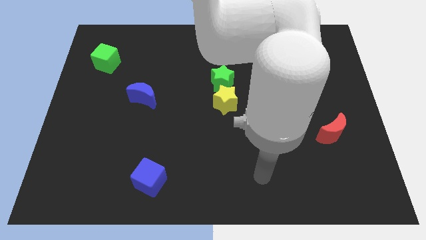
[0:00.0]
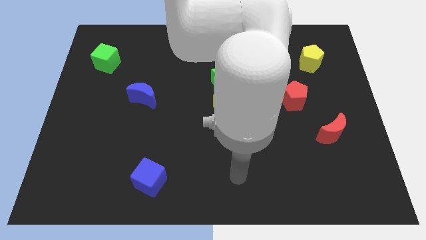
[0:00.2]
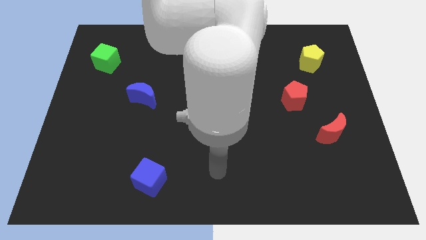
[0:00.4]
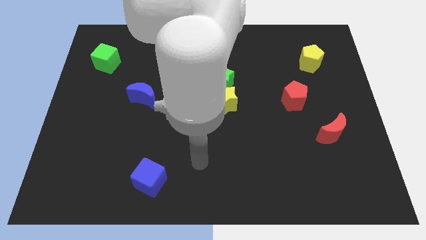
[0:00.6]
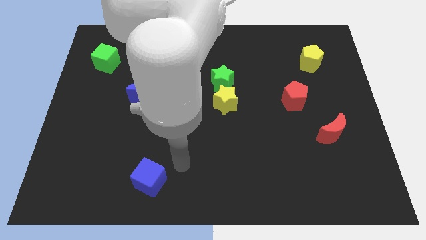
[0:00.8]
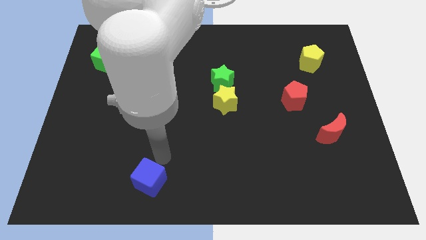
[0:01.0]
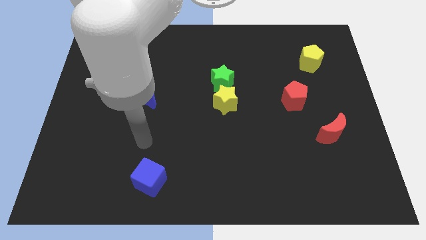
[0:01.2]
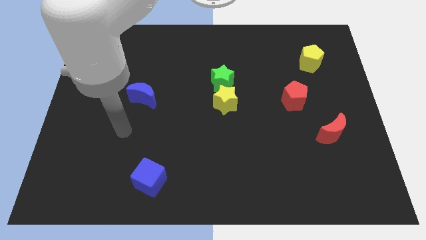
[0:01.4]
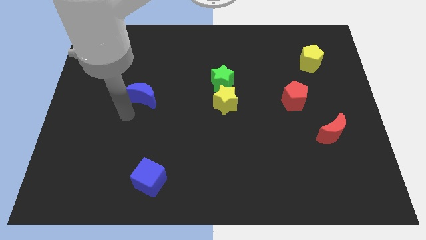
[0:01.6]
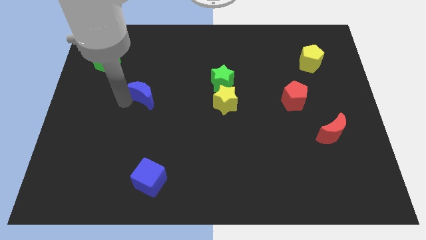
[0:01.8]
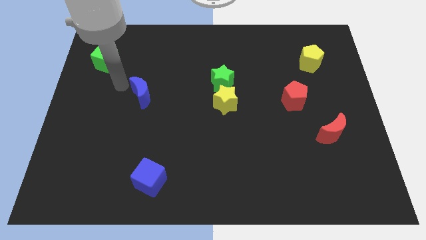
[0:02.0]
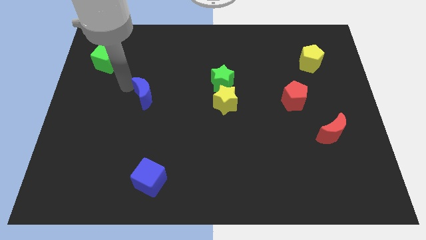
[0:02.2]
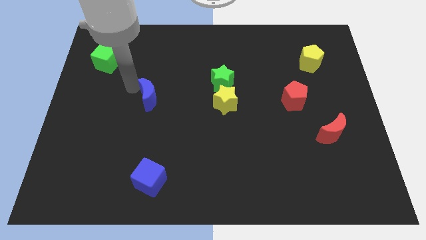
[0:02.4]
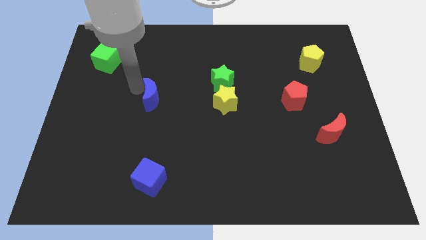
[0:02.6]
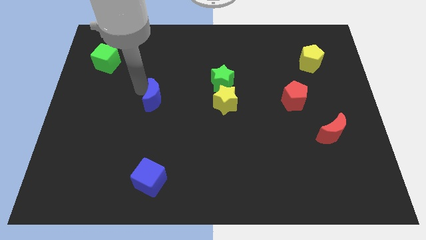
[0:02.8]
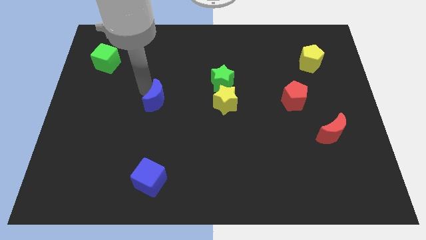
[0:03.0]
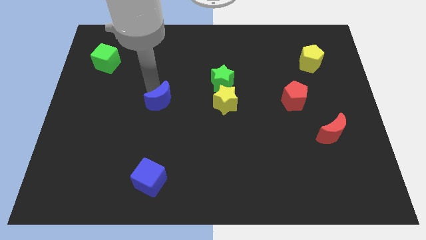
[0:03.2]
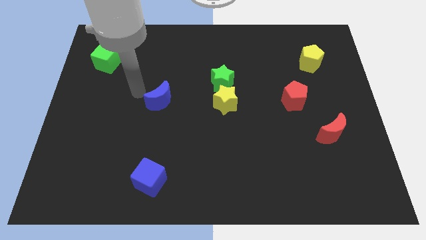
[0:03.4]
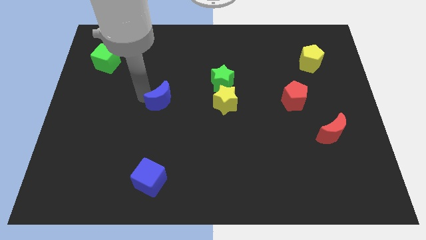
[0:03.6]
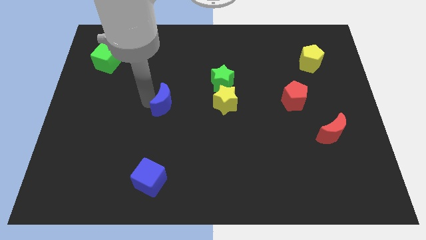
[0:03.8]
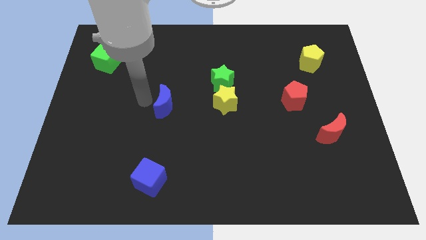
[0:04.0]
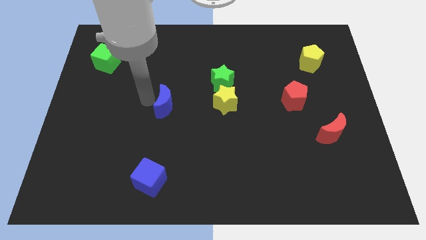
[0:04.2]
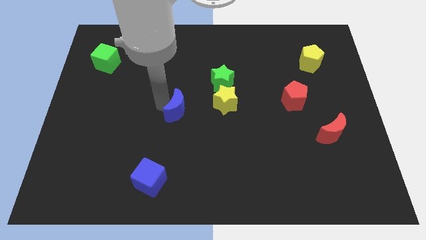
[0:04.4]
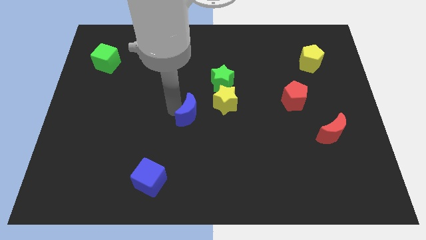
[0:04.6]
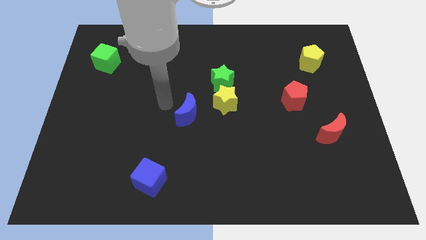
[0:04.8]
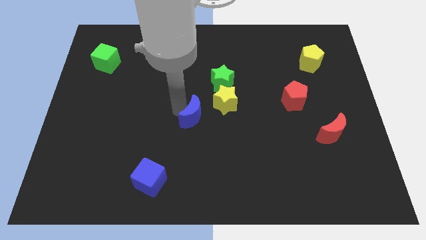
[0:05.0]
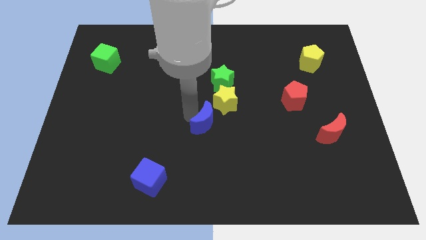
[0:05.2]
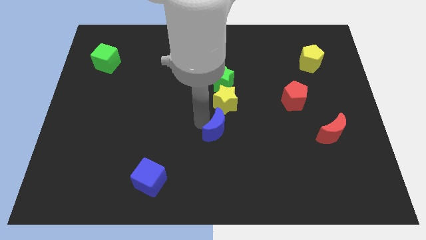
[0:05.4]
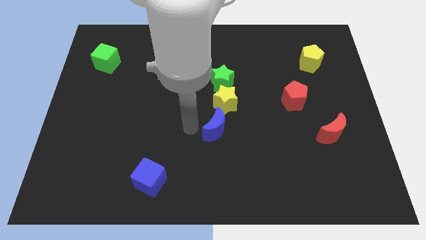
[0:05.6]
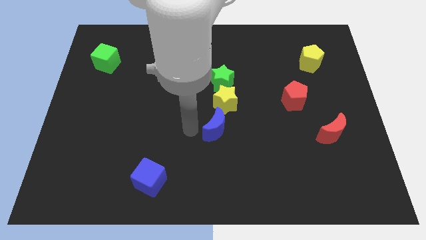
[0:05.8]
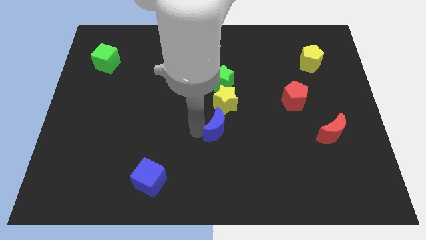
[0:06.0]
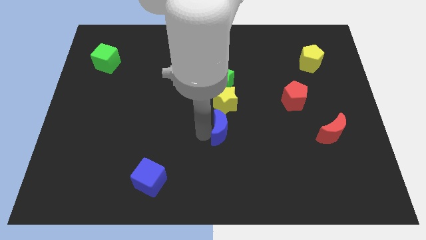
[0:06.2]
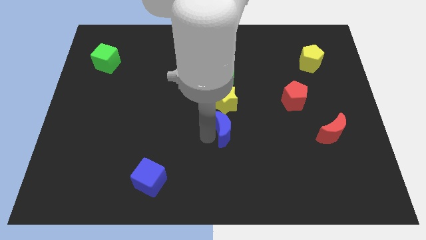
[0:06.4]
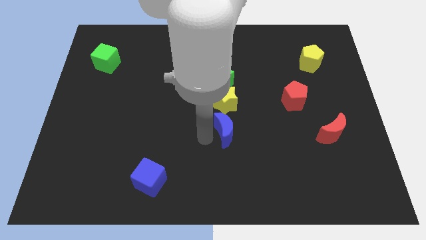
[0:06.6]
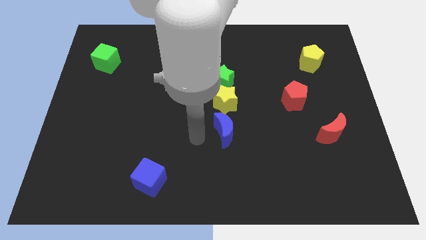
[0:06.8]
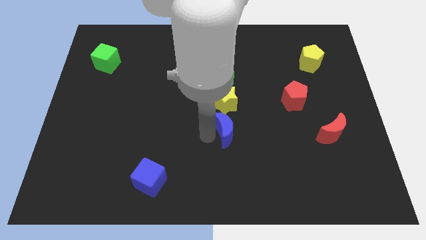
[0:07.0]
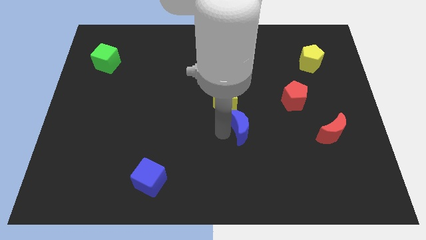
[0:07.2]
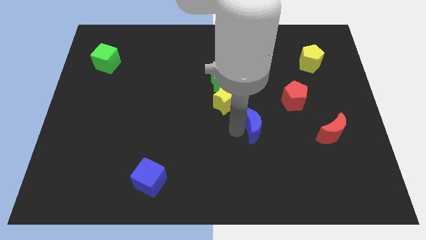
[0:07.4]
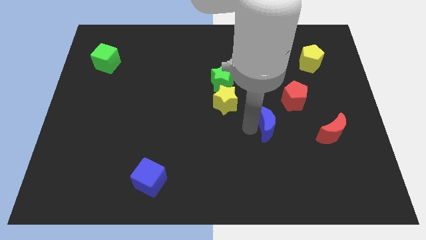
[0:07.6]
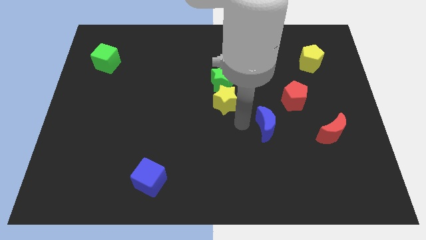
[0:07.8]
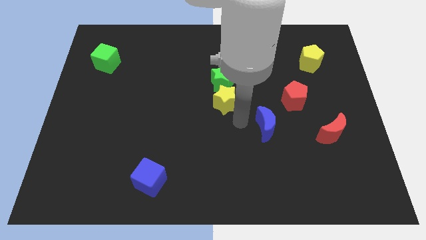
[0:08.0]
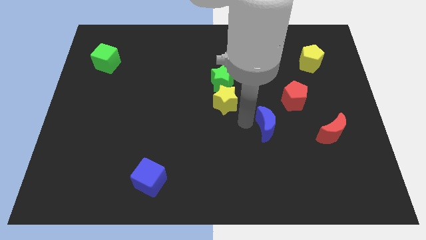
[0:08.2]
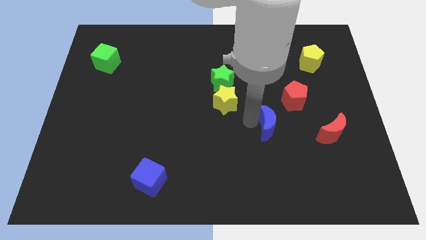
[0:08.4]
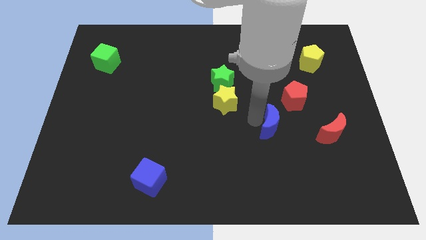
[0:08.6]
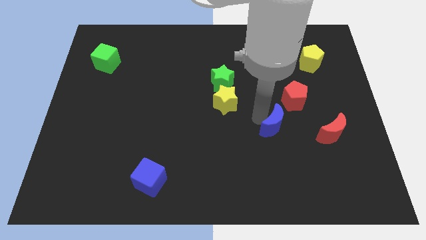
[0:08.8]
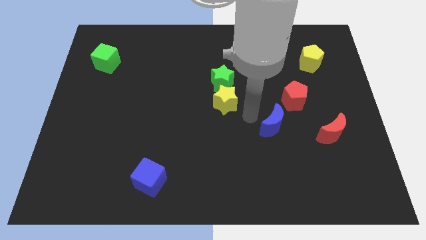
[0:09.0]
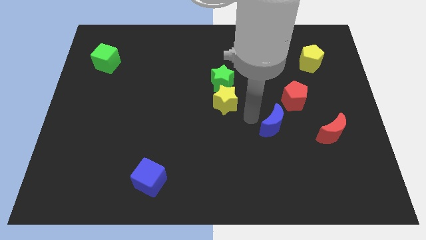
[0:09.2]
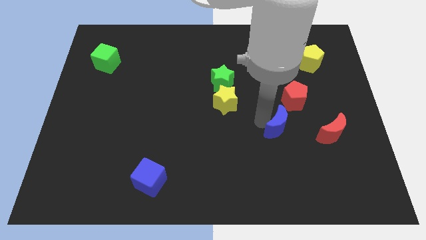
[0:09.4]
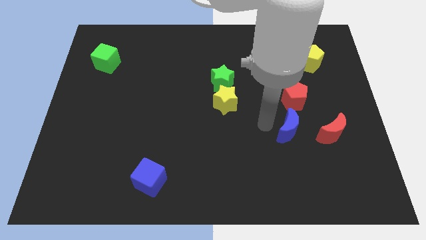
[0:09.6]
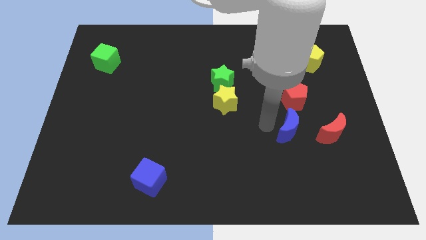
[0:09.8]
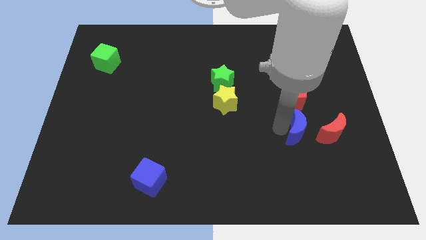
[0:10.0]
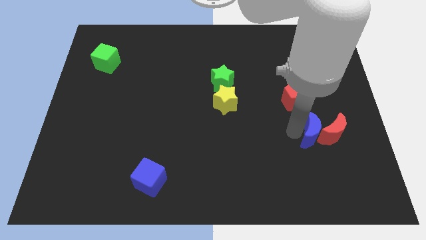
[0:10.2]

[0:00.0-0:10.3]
move the blue moon close to the red moon

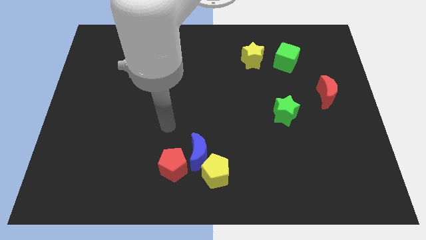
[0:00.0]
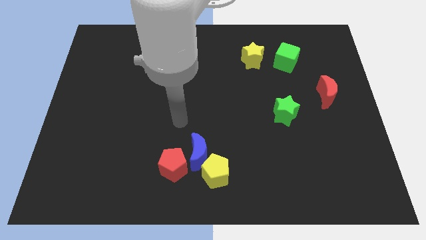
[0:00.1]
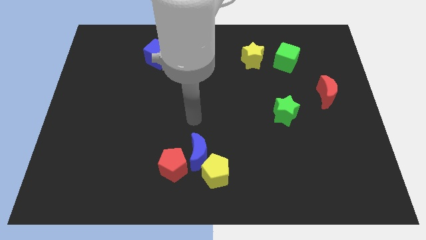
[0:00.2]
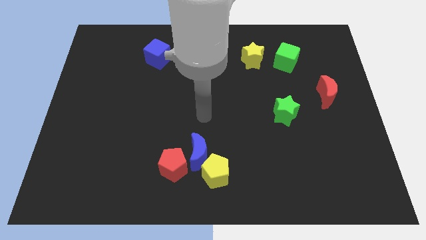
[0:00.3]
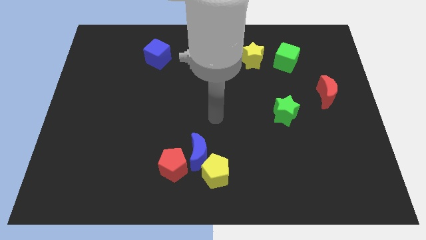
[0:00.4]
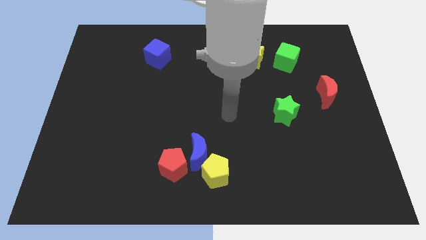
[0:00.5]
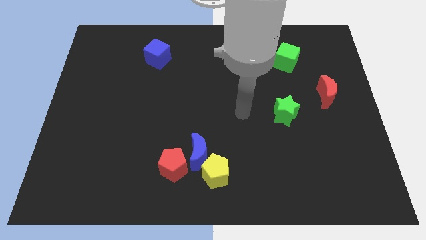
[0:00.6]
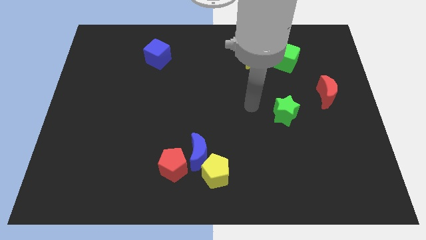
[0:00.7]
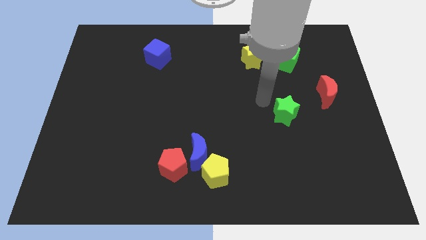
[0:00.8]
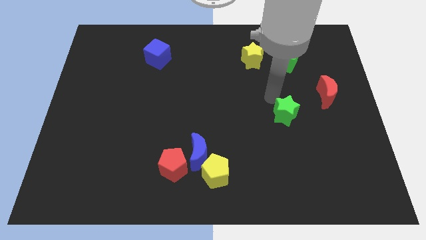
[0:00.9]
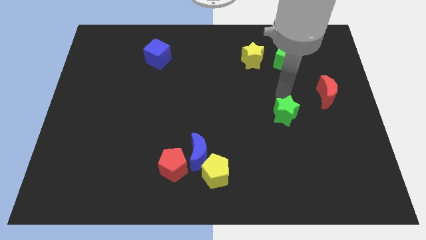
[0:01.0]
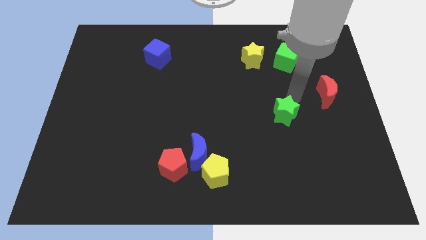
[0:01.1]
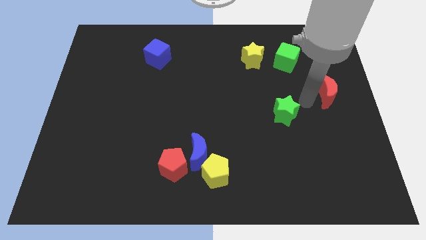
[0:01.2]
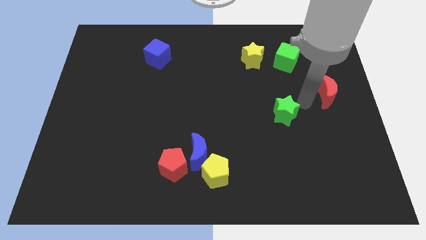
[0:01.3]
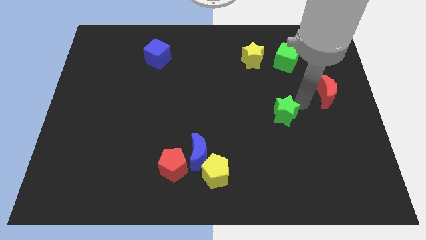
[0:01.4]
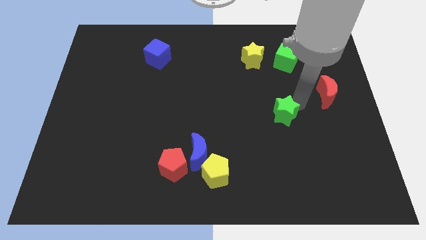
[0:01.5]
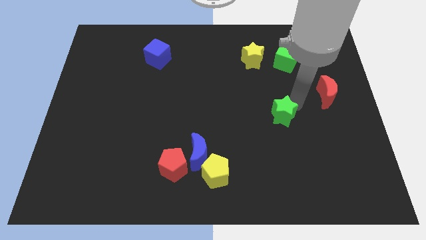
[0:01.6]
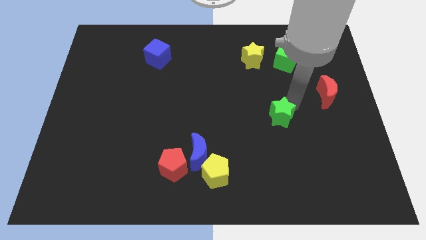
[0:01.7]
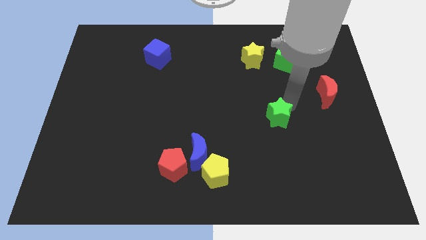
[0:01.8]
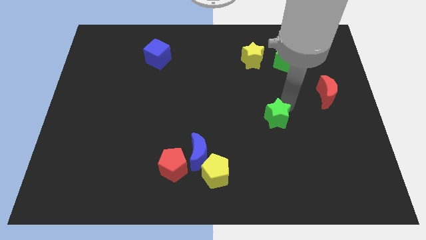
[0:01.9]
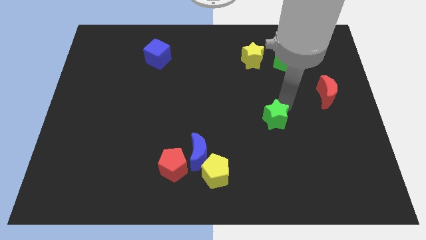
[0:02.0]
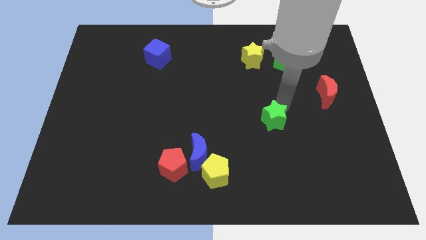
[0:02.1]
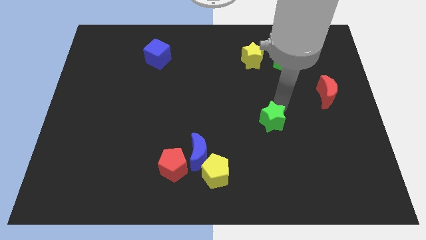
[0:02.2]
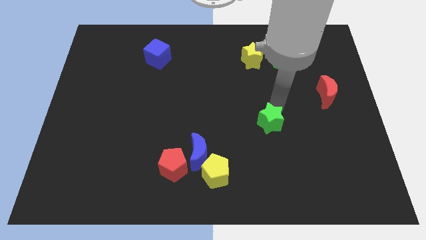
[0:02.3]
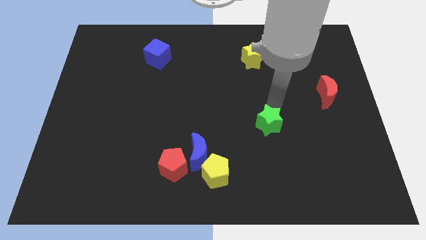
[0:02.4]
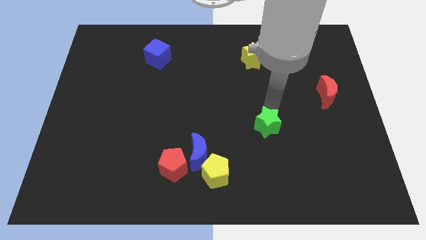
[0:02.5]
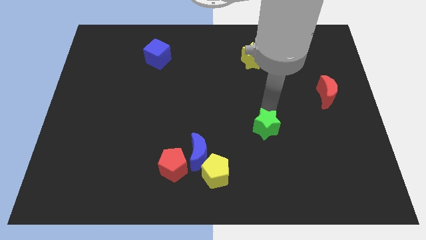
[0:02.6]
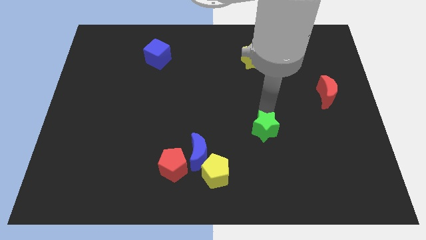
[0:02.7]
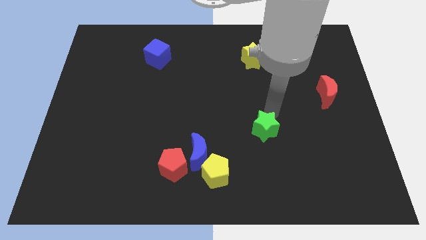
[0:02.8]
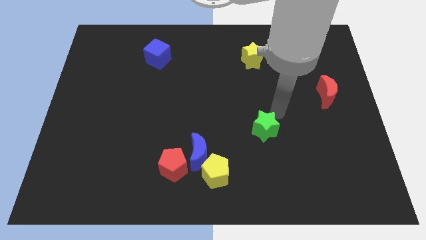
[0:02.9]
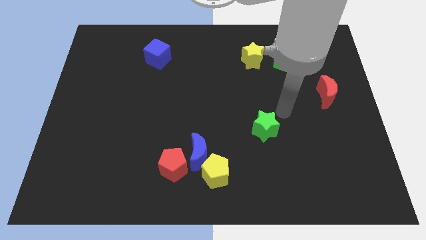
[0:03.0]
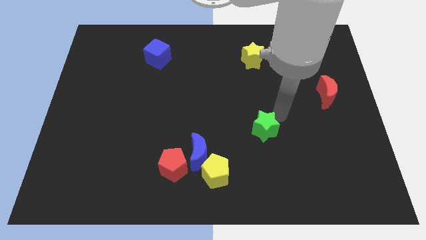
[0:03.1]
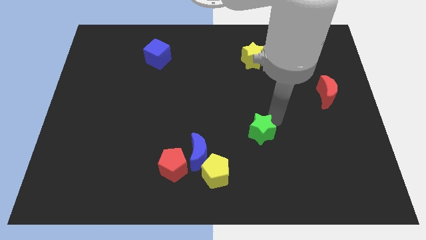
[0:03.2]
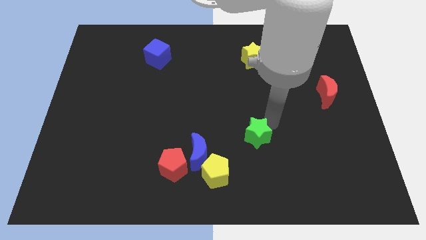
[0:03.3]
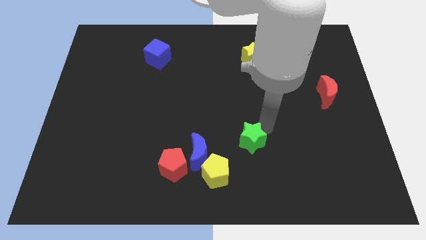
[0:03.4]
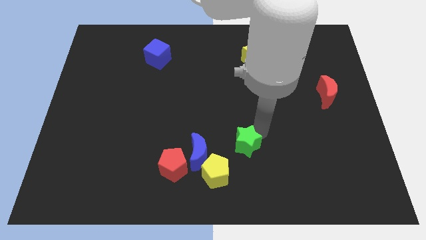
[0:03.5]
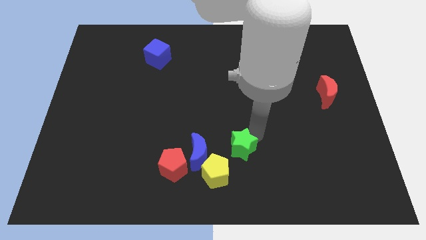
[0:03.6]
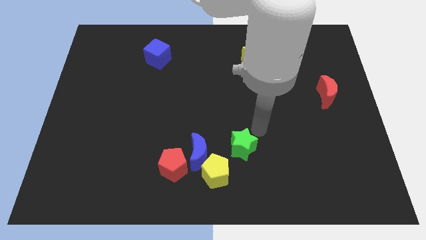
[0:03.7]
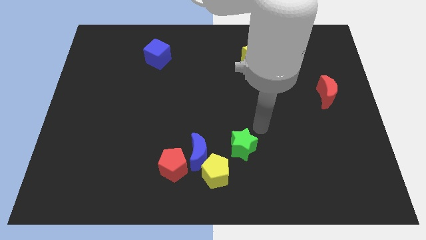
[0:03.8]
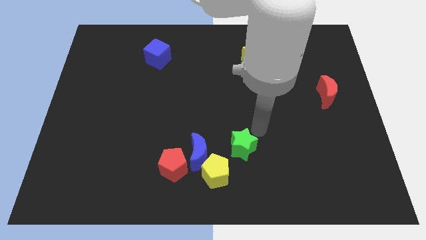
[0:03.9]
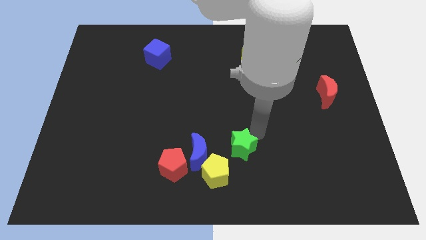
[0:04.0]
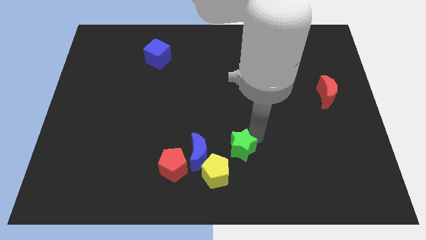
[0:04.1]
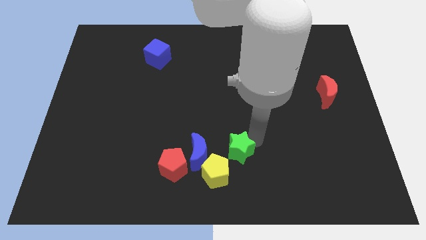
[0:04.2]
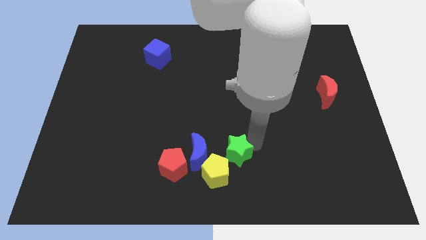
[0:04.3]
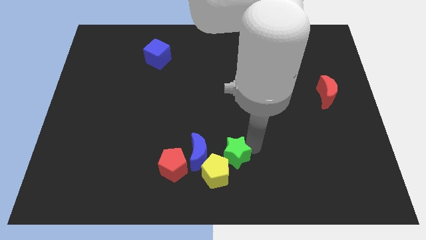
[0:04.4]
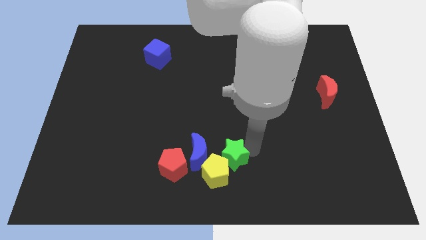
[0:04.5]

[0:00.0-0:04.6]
slide the green star to the yellow pentagon
